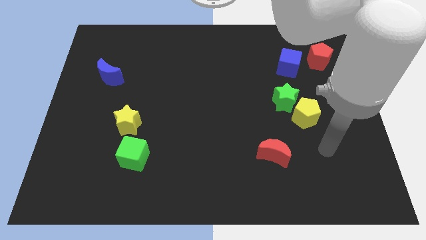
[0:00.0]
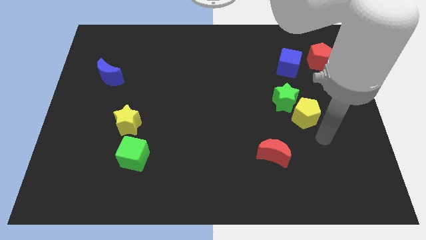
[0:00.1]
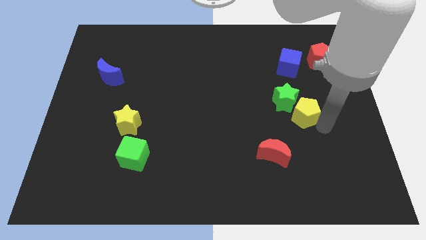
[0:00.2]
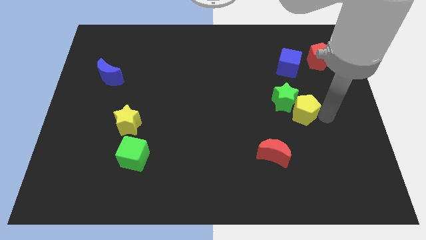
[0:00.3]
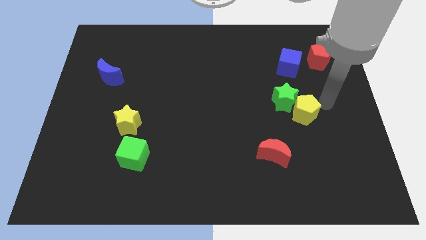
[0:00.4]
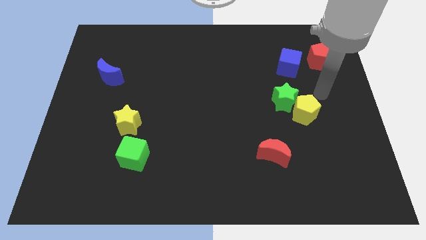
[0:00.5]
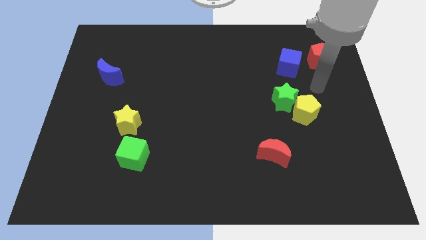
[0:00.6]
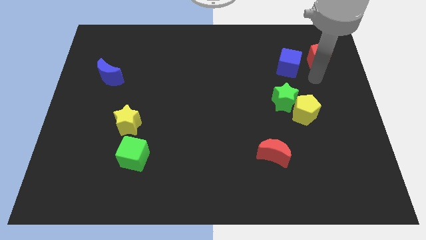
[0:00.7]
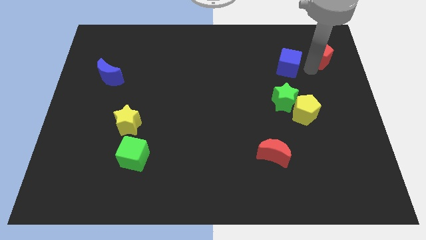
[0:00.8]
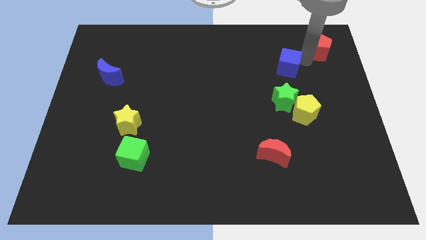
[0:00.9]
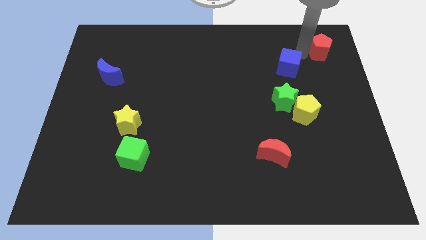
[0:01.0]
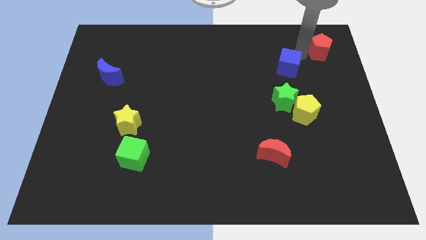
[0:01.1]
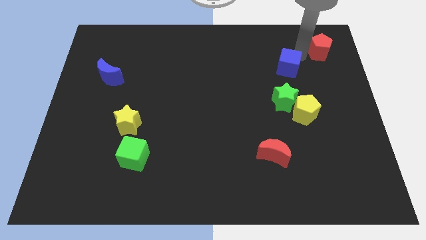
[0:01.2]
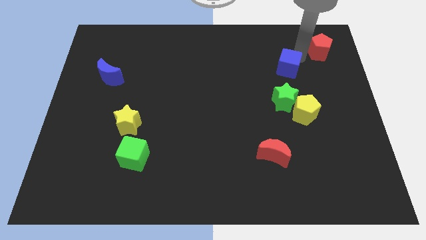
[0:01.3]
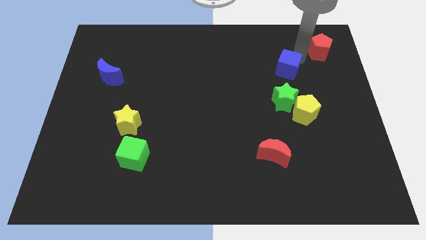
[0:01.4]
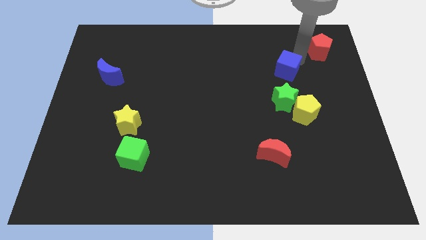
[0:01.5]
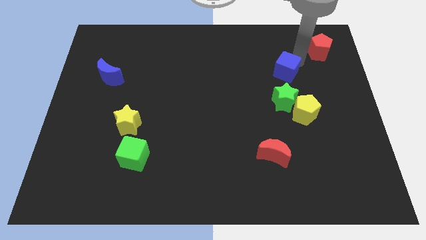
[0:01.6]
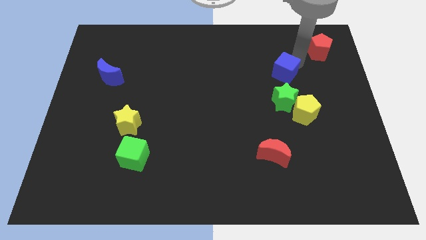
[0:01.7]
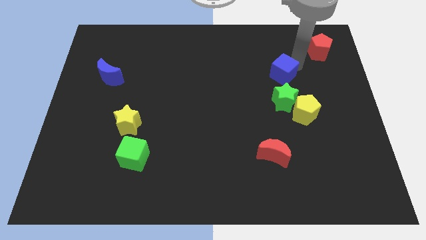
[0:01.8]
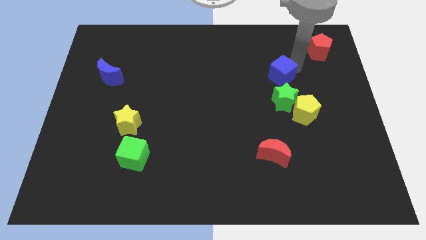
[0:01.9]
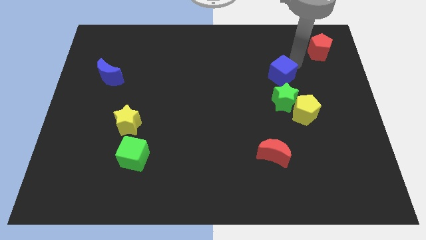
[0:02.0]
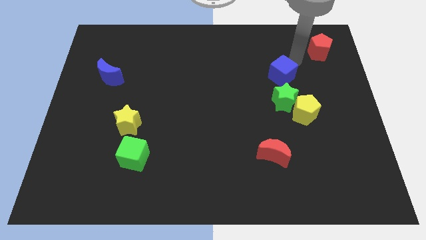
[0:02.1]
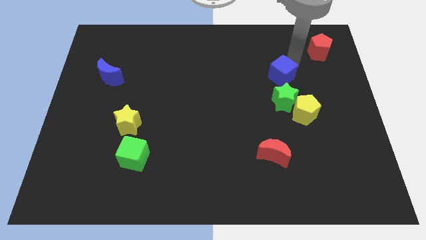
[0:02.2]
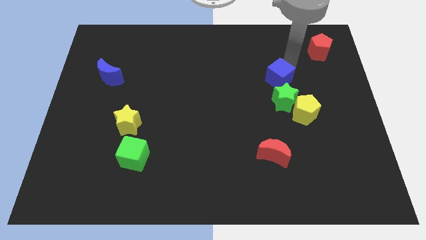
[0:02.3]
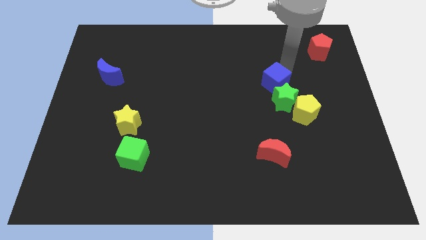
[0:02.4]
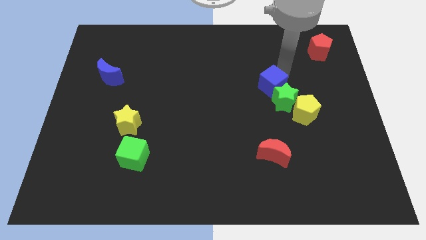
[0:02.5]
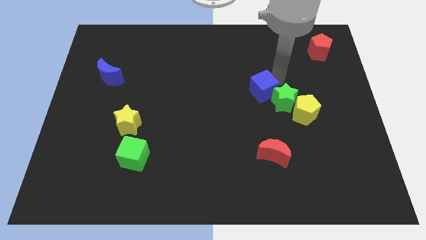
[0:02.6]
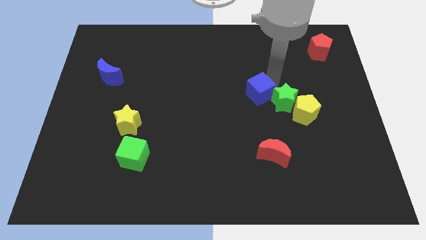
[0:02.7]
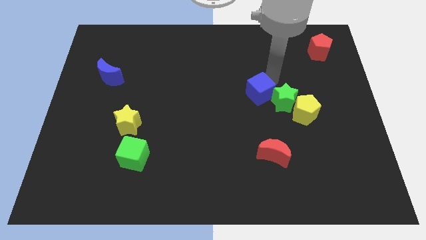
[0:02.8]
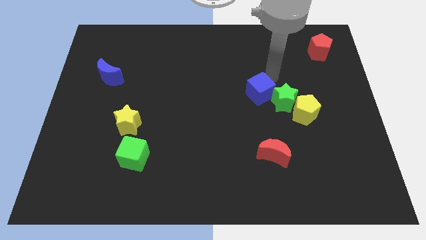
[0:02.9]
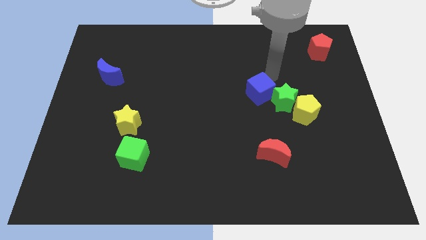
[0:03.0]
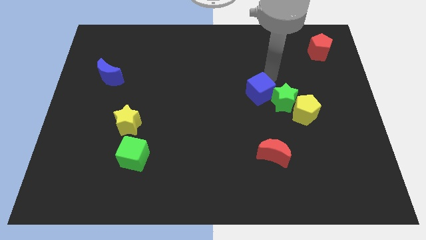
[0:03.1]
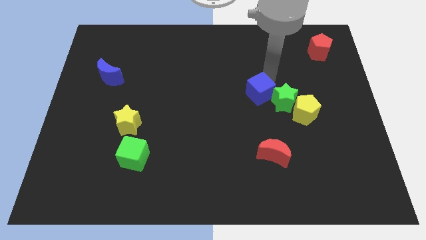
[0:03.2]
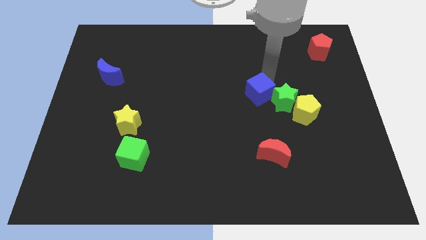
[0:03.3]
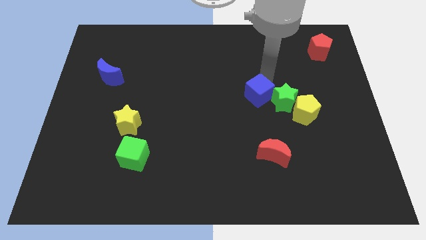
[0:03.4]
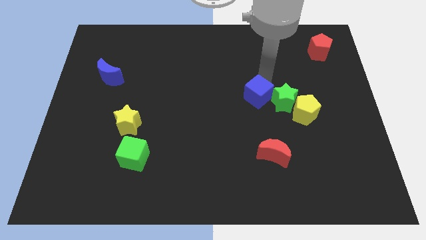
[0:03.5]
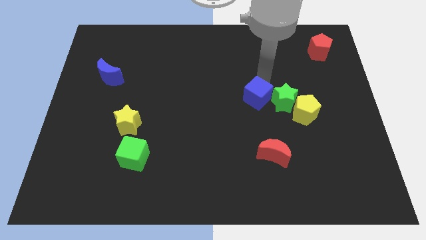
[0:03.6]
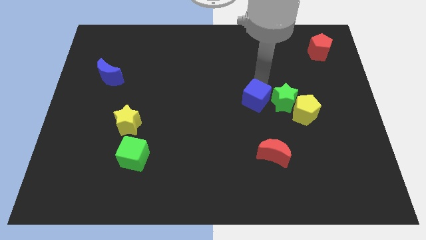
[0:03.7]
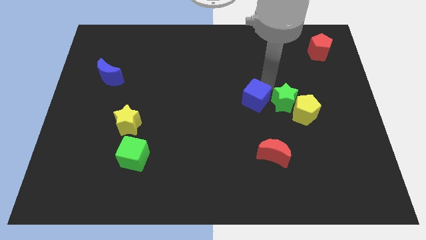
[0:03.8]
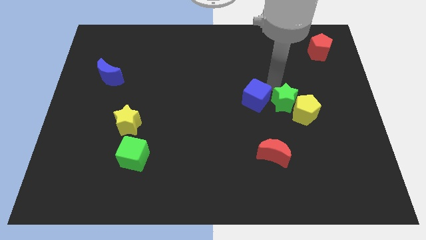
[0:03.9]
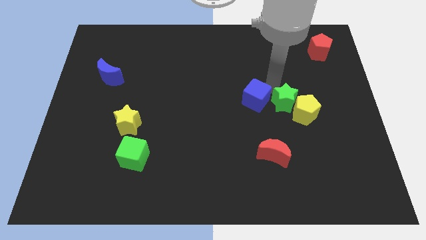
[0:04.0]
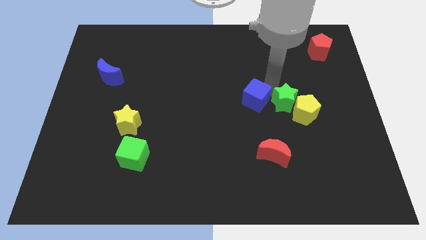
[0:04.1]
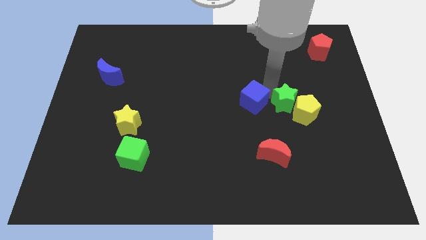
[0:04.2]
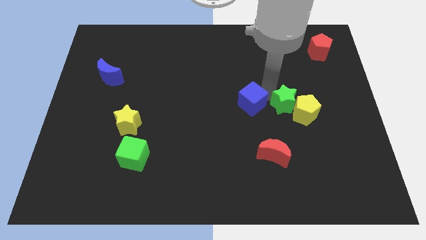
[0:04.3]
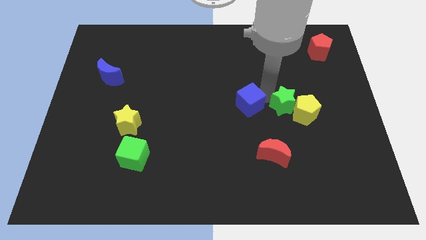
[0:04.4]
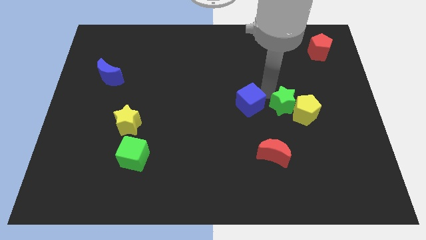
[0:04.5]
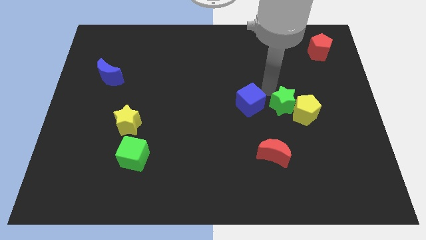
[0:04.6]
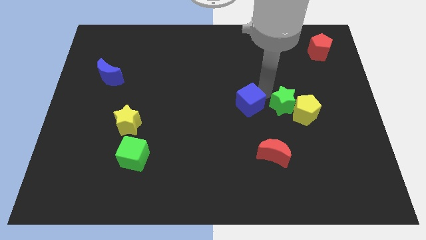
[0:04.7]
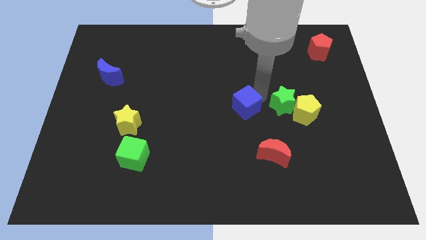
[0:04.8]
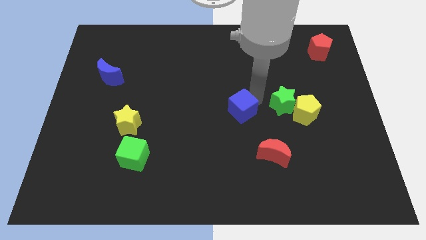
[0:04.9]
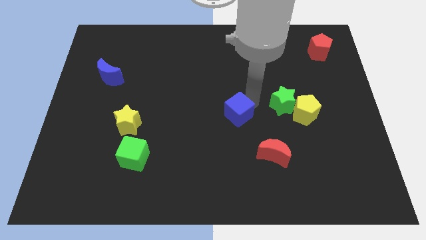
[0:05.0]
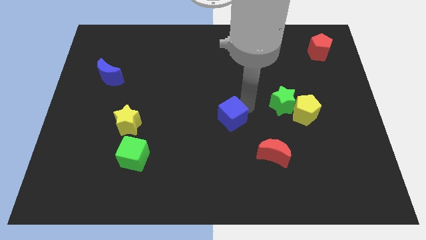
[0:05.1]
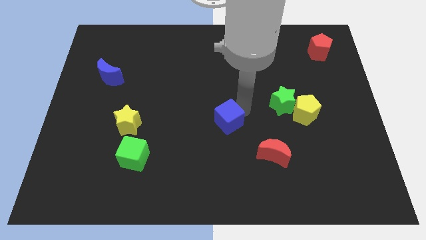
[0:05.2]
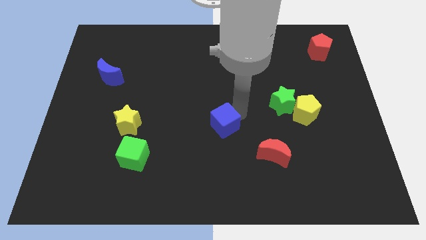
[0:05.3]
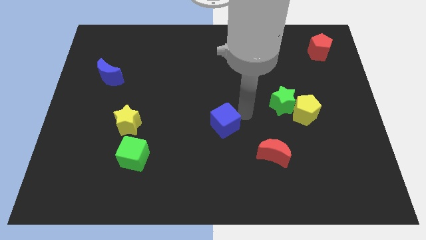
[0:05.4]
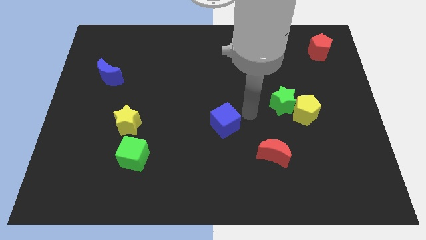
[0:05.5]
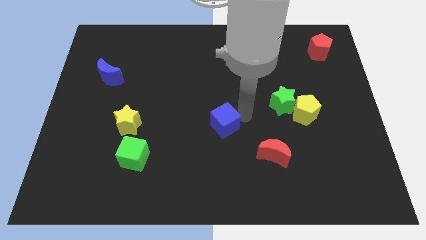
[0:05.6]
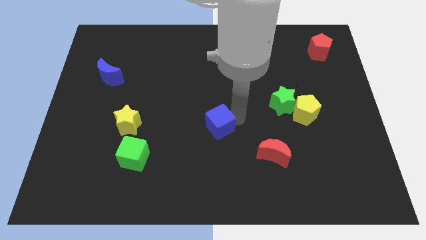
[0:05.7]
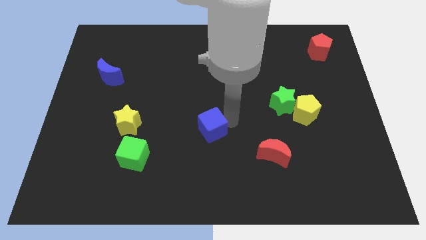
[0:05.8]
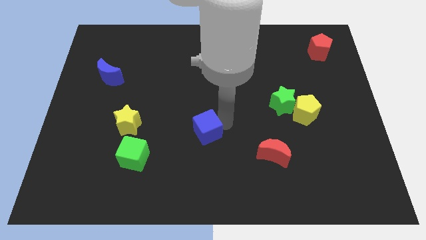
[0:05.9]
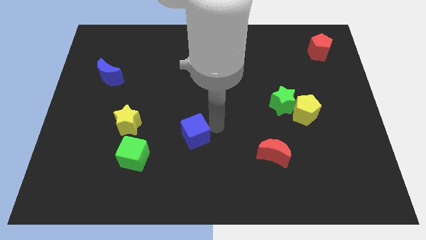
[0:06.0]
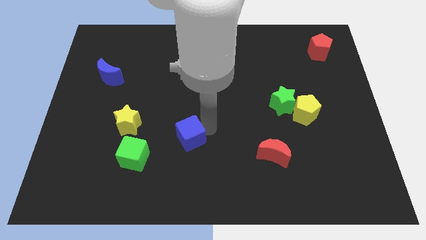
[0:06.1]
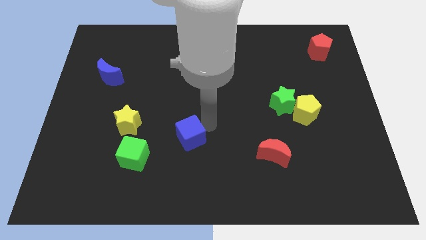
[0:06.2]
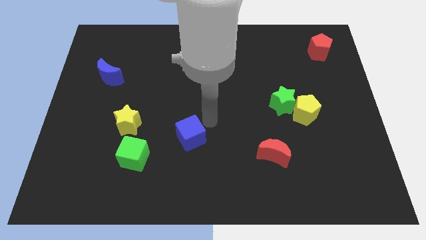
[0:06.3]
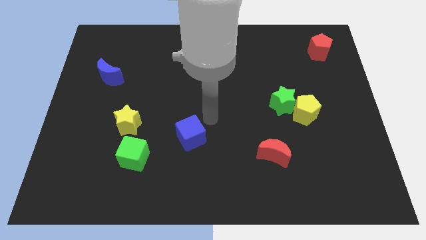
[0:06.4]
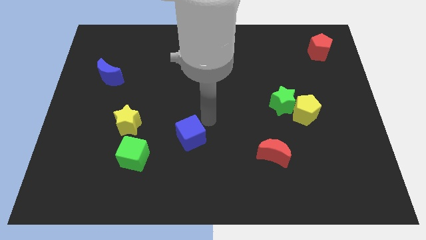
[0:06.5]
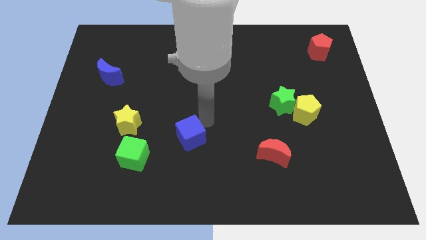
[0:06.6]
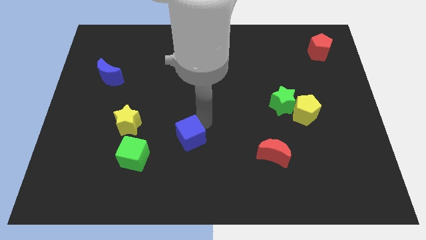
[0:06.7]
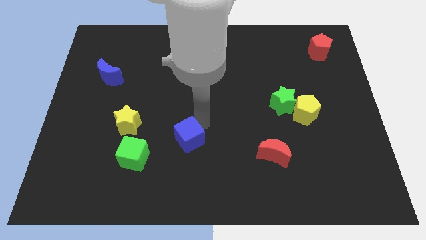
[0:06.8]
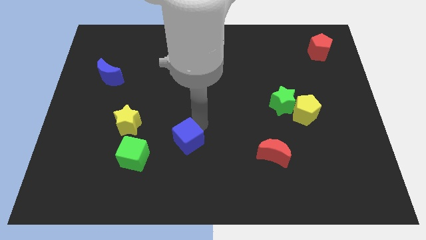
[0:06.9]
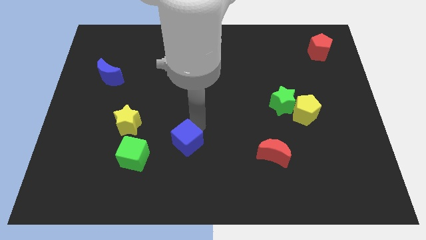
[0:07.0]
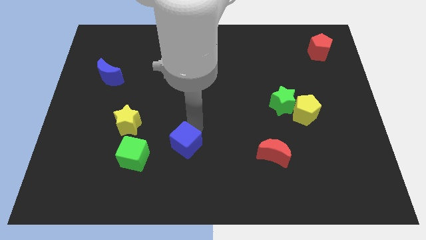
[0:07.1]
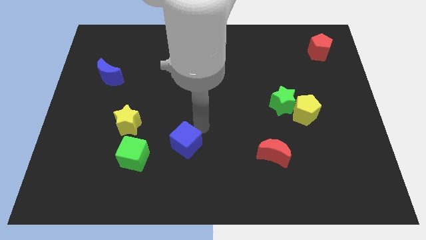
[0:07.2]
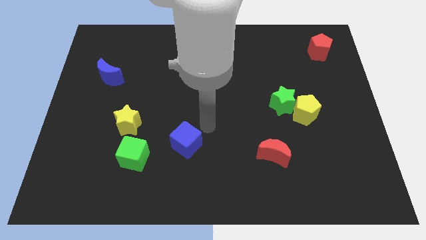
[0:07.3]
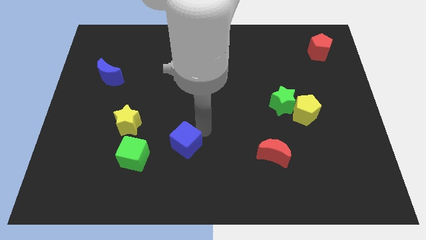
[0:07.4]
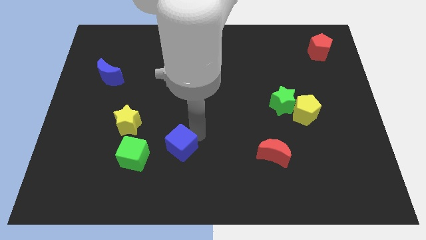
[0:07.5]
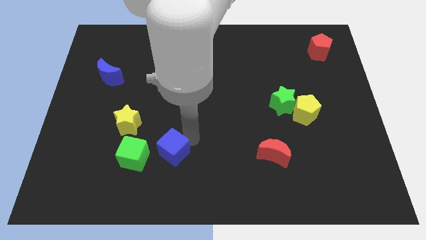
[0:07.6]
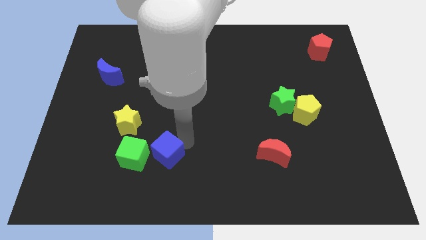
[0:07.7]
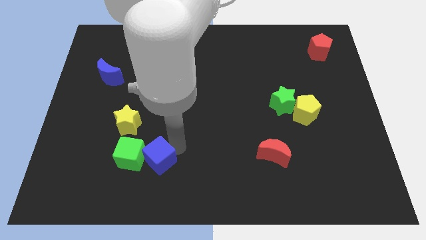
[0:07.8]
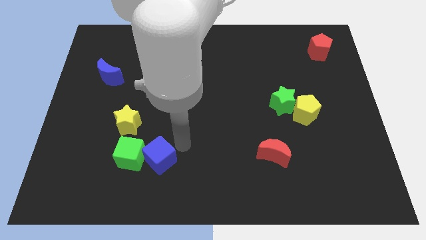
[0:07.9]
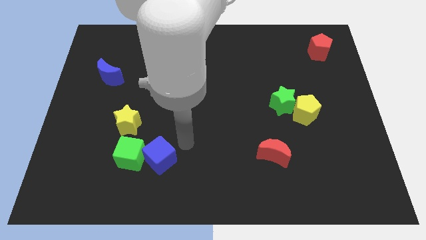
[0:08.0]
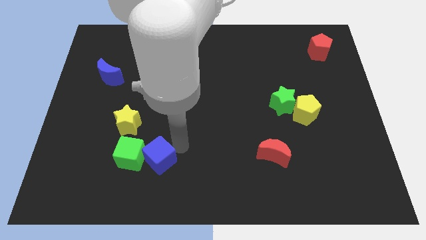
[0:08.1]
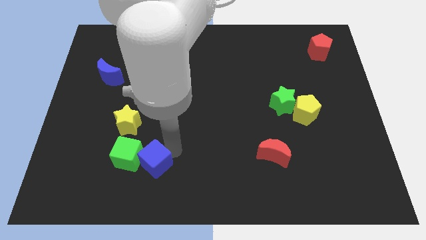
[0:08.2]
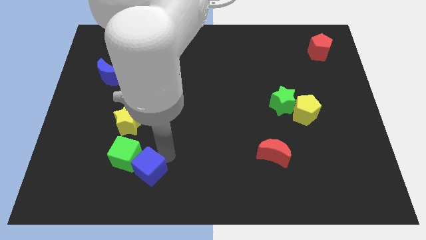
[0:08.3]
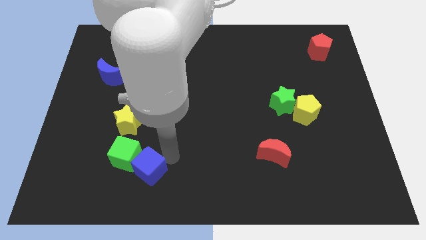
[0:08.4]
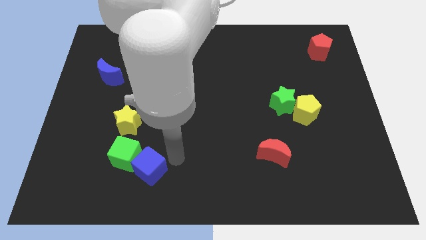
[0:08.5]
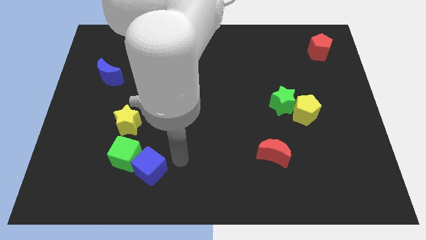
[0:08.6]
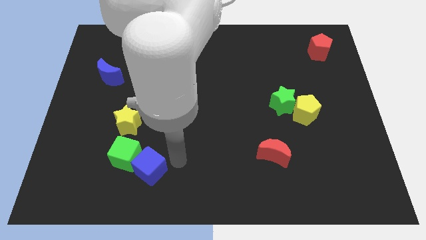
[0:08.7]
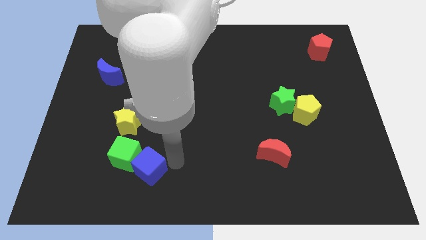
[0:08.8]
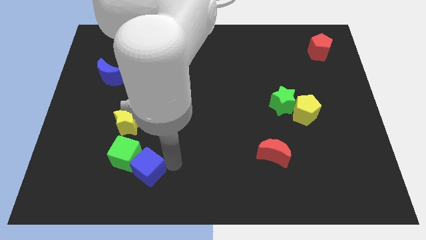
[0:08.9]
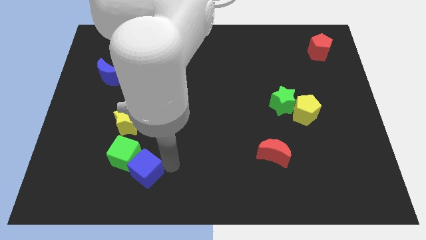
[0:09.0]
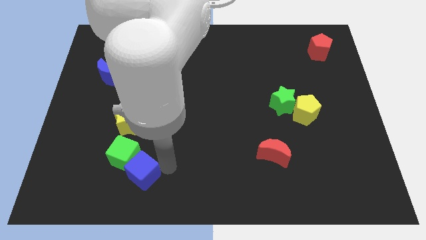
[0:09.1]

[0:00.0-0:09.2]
slide the blue cube to the bottom of the yellow star
